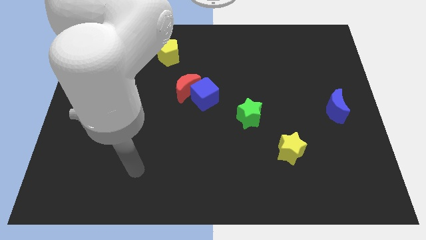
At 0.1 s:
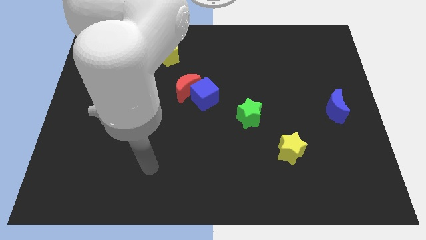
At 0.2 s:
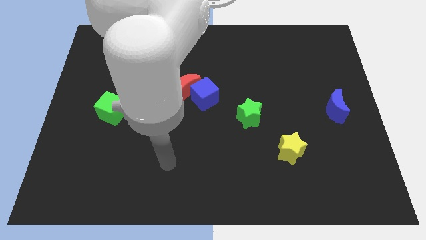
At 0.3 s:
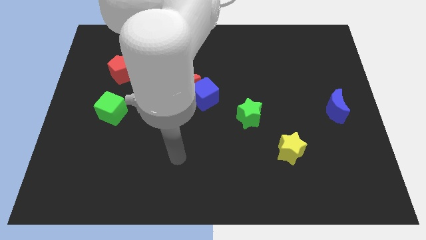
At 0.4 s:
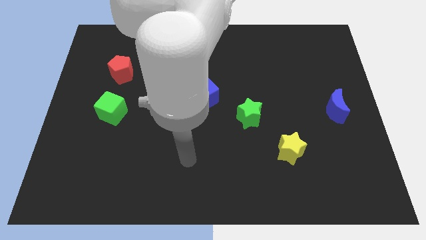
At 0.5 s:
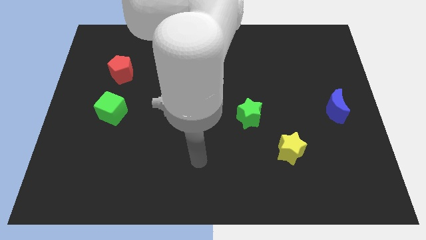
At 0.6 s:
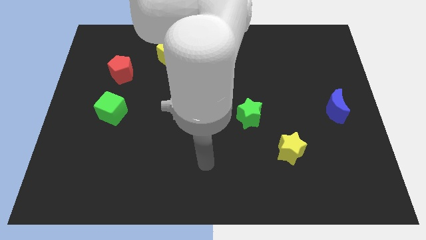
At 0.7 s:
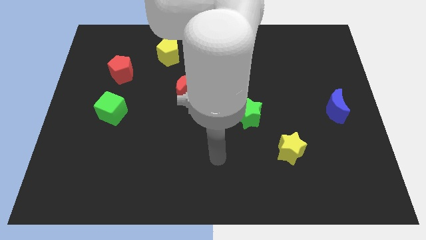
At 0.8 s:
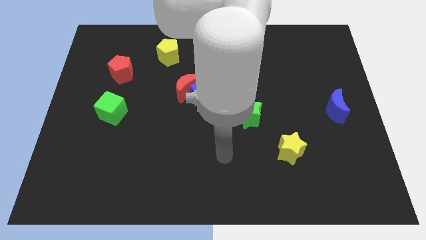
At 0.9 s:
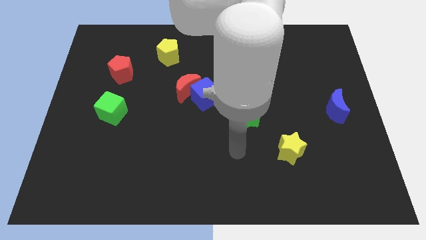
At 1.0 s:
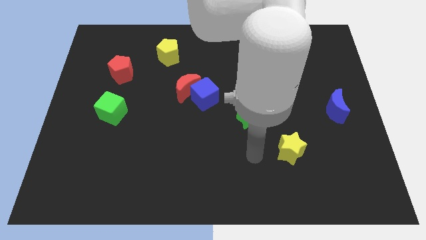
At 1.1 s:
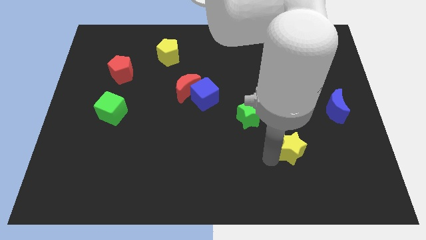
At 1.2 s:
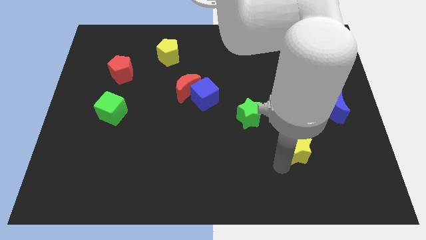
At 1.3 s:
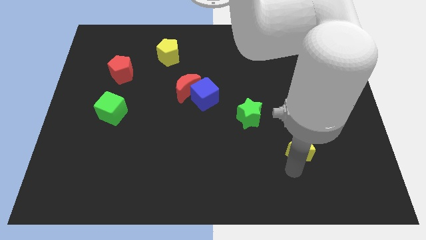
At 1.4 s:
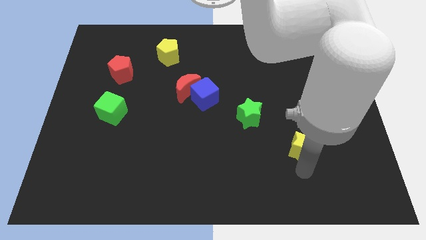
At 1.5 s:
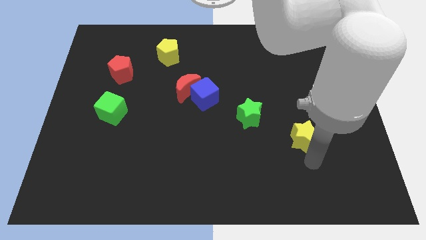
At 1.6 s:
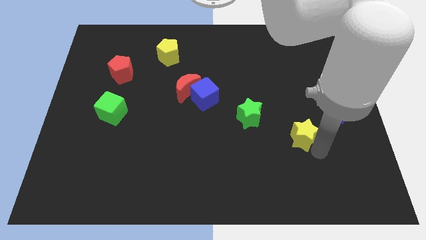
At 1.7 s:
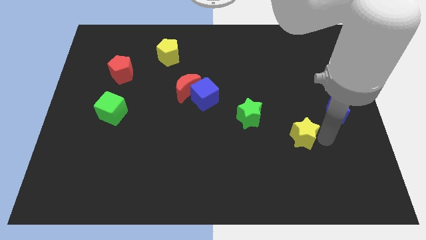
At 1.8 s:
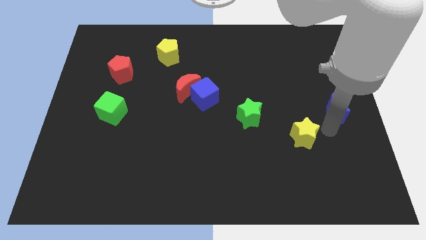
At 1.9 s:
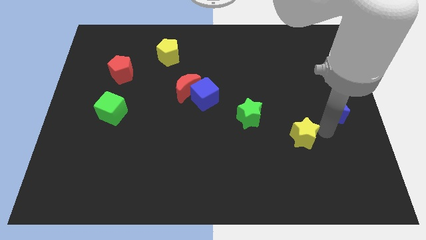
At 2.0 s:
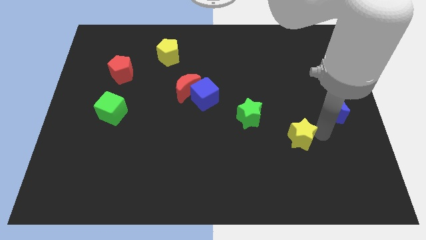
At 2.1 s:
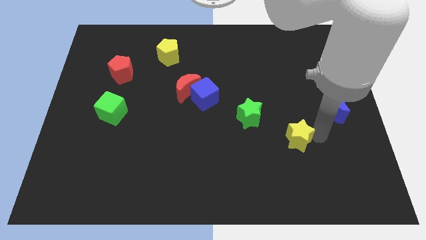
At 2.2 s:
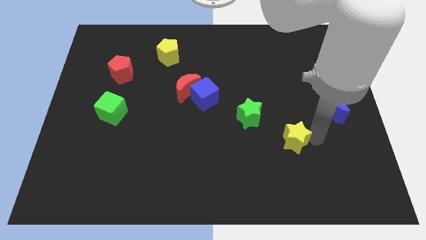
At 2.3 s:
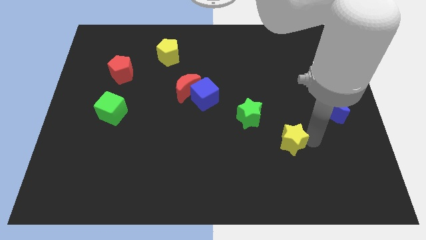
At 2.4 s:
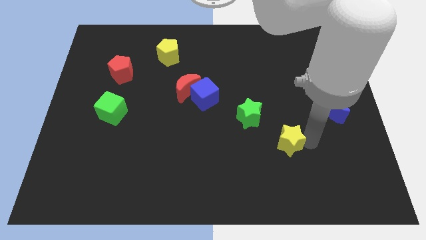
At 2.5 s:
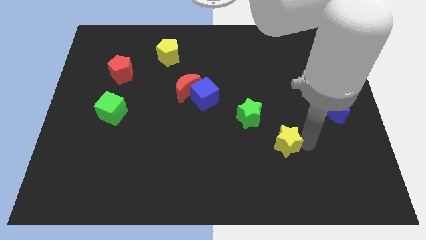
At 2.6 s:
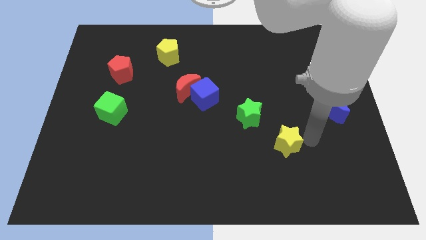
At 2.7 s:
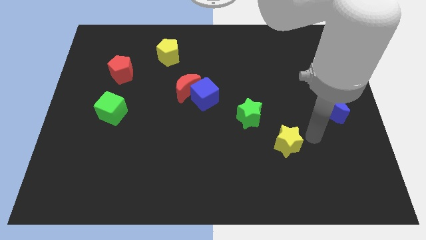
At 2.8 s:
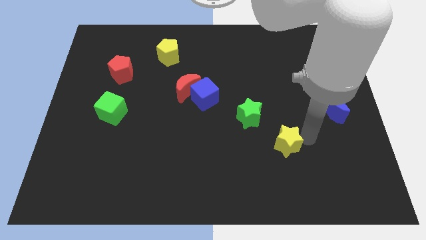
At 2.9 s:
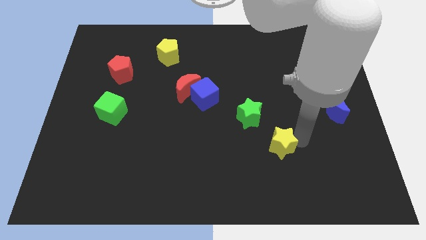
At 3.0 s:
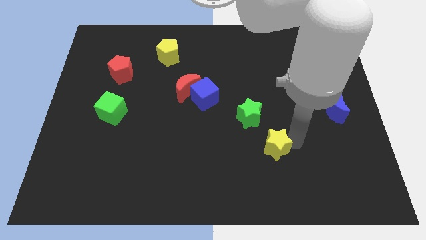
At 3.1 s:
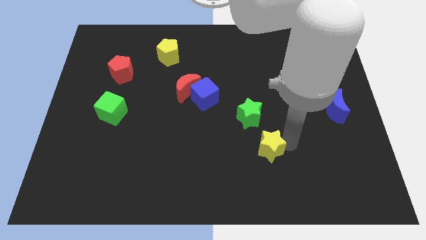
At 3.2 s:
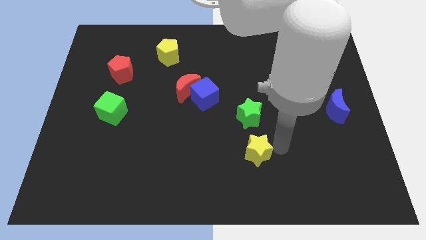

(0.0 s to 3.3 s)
push the yellow star left slightly

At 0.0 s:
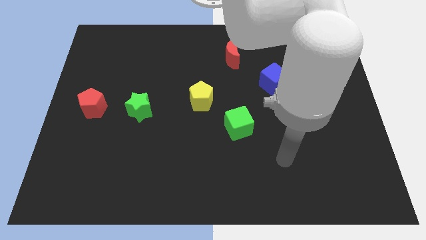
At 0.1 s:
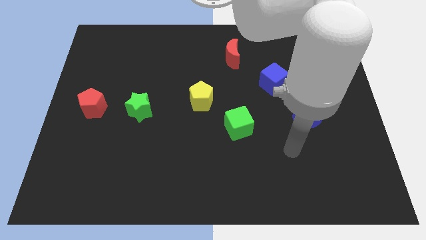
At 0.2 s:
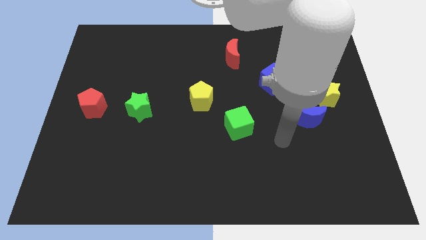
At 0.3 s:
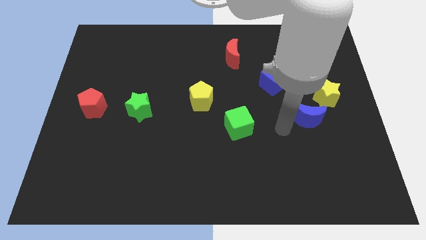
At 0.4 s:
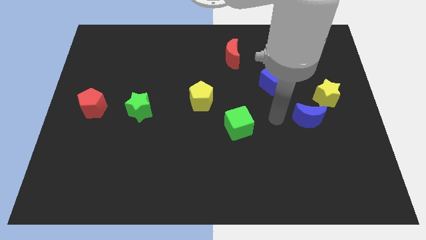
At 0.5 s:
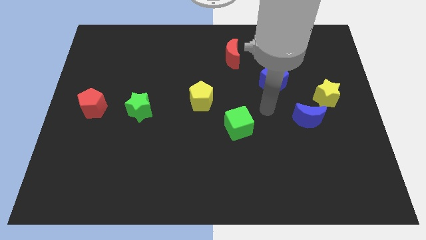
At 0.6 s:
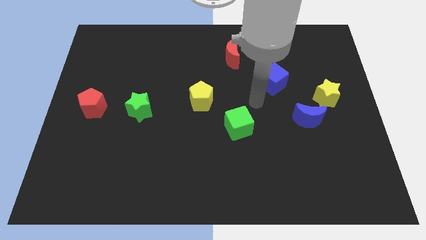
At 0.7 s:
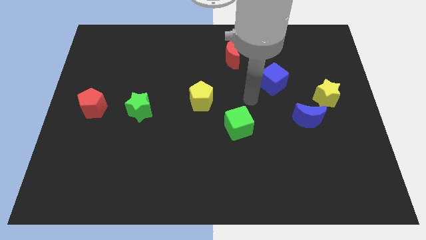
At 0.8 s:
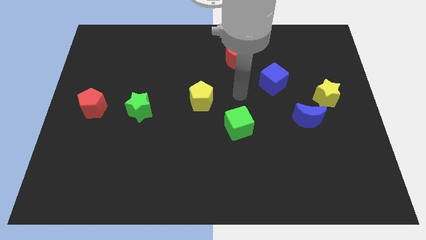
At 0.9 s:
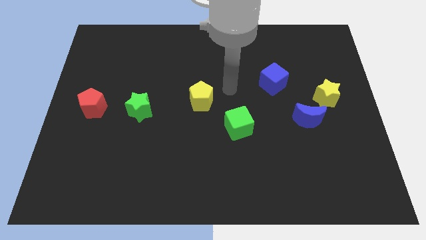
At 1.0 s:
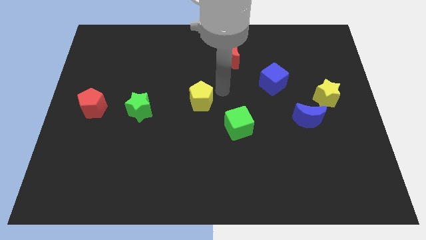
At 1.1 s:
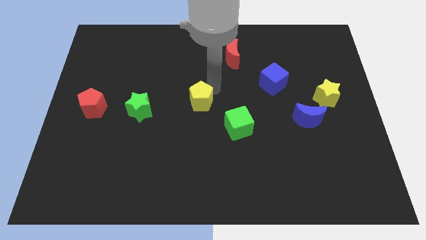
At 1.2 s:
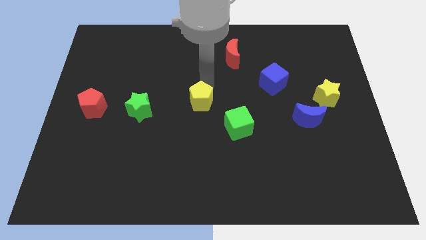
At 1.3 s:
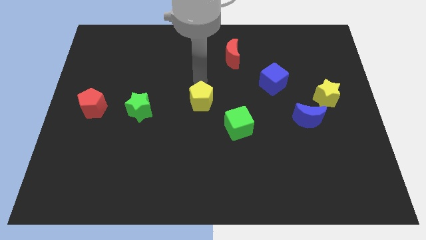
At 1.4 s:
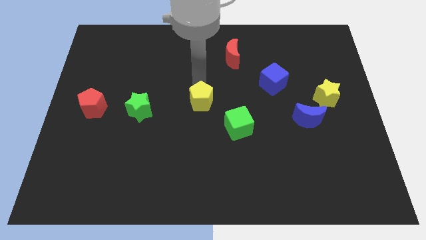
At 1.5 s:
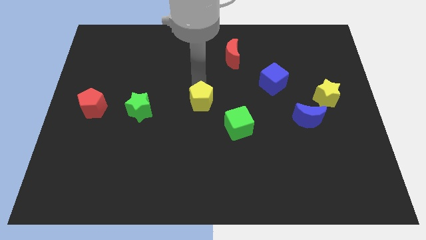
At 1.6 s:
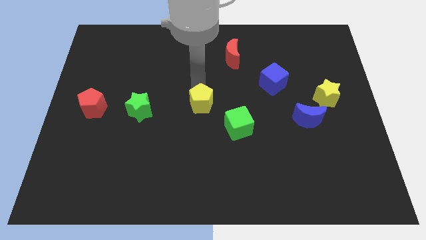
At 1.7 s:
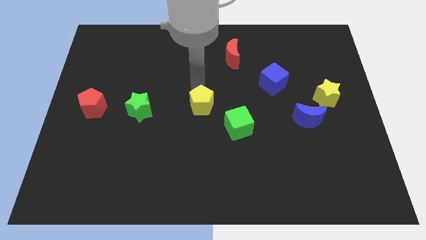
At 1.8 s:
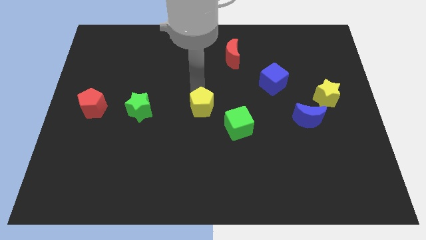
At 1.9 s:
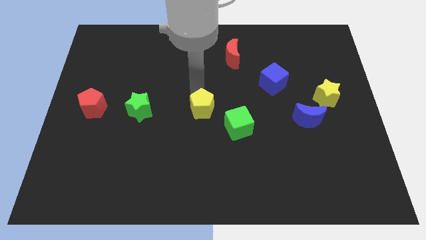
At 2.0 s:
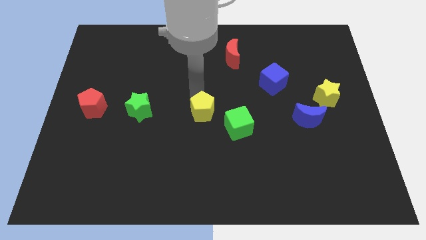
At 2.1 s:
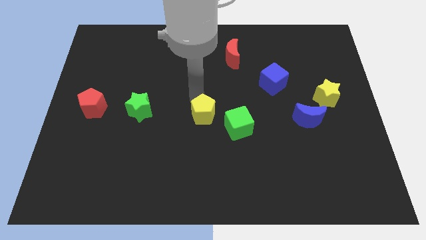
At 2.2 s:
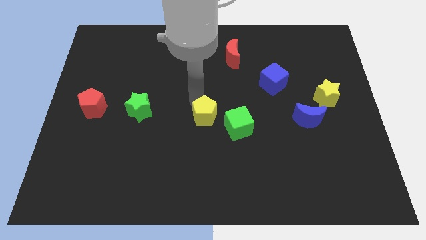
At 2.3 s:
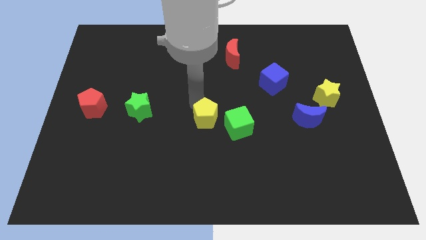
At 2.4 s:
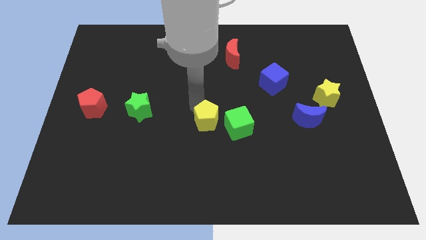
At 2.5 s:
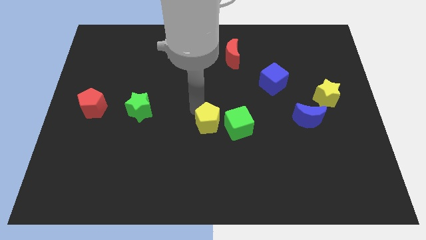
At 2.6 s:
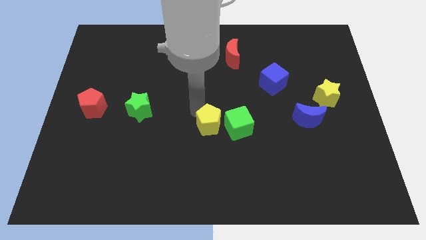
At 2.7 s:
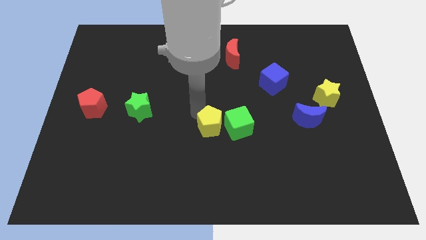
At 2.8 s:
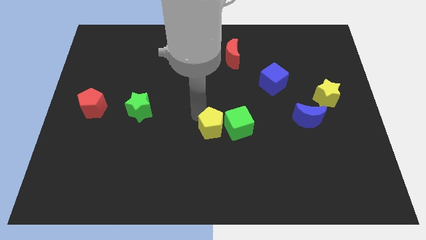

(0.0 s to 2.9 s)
slightly slide the yellow pentagon down and right diagonally

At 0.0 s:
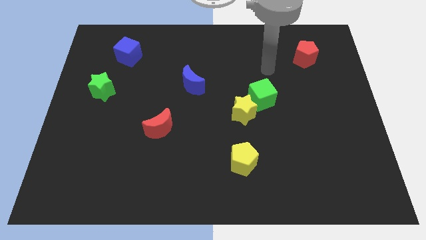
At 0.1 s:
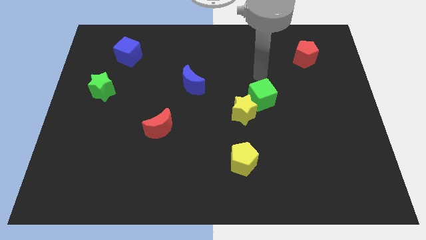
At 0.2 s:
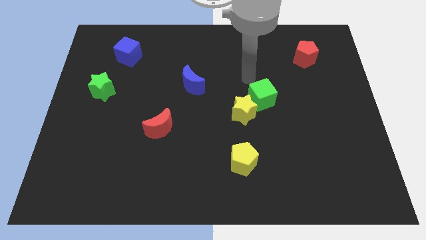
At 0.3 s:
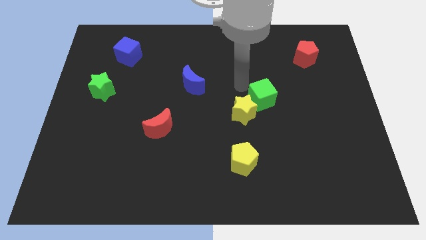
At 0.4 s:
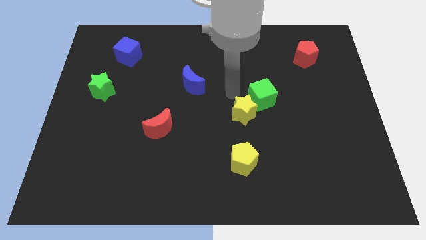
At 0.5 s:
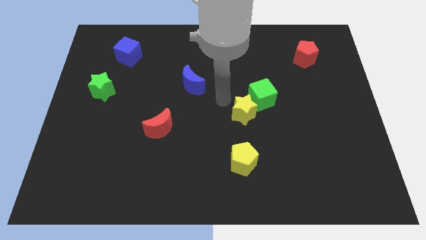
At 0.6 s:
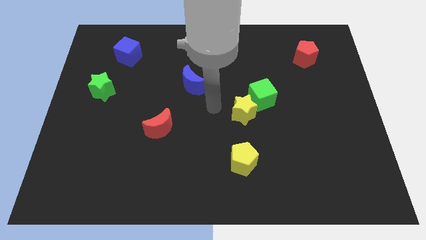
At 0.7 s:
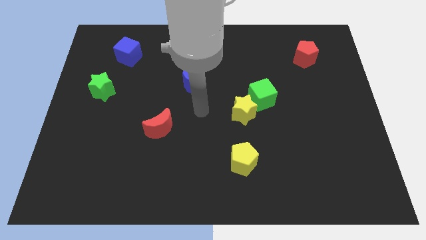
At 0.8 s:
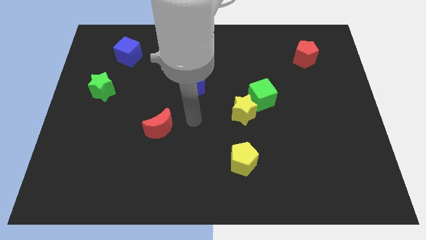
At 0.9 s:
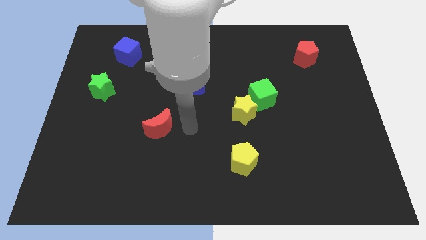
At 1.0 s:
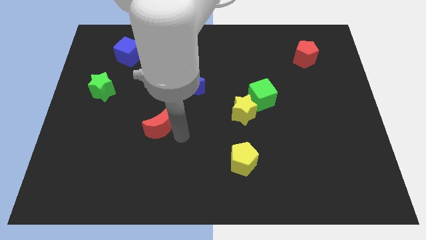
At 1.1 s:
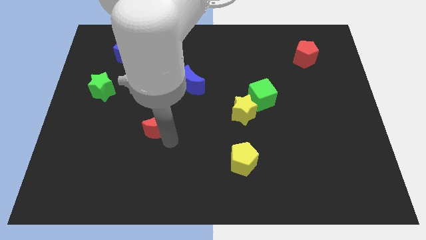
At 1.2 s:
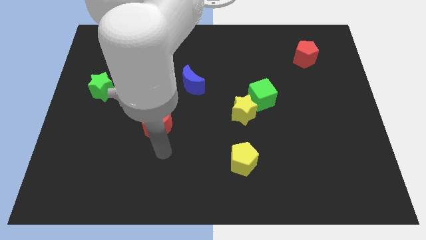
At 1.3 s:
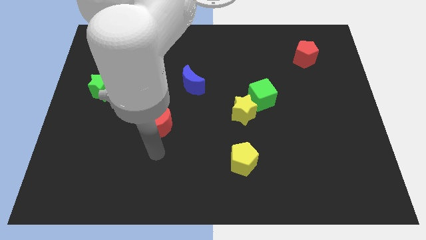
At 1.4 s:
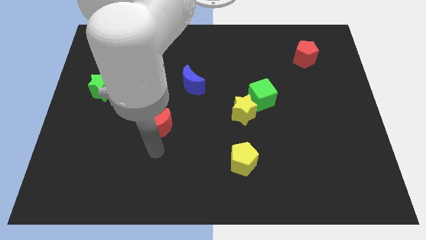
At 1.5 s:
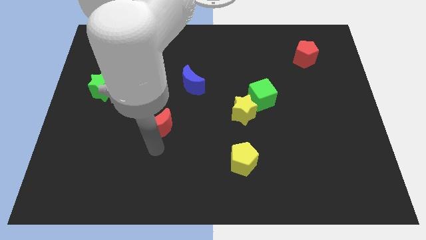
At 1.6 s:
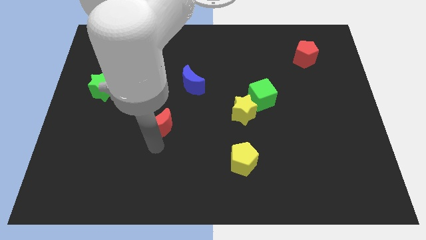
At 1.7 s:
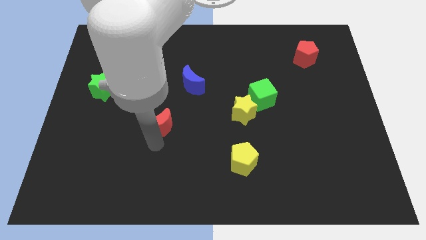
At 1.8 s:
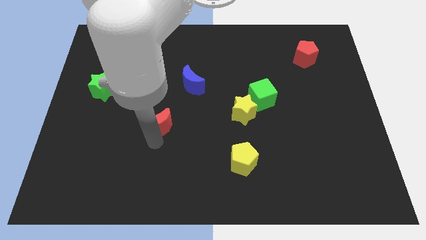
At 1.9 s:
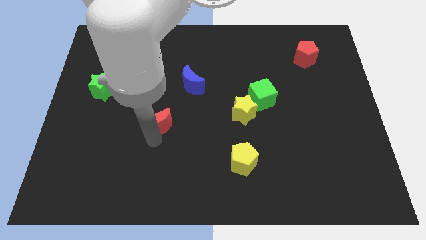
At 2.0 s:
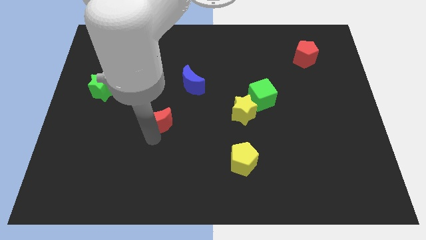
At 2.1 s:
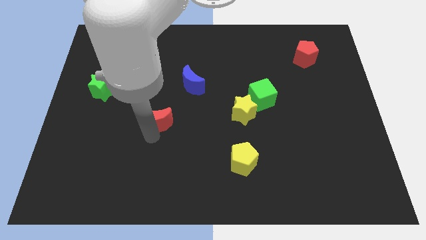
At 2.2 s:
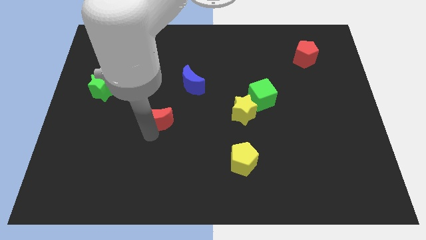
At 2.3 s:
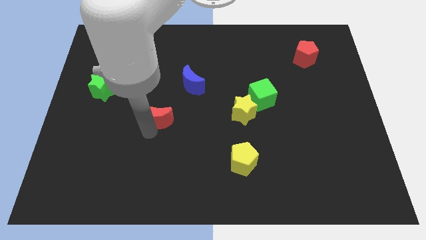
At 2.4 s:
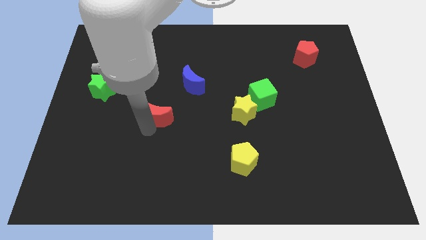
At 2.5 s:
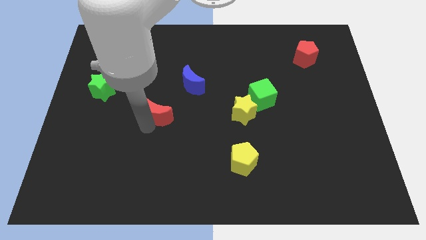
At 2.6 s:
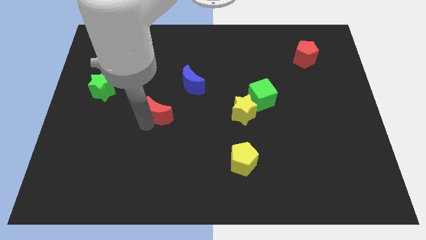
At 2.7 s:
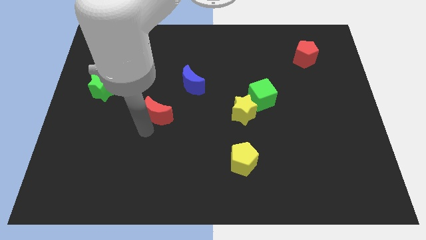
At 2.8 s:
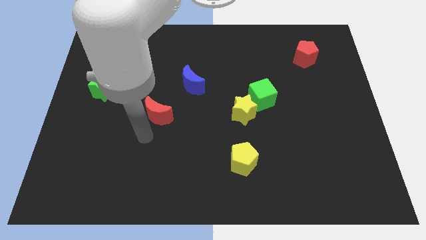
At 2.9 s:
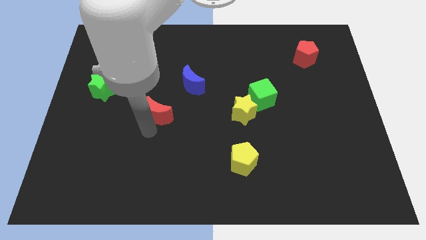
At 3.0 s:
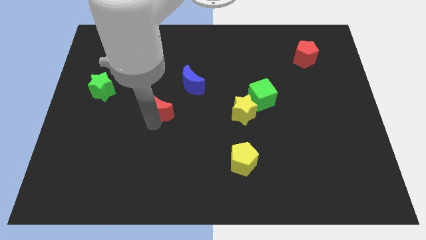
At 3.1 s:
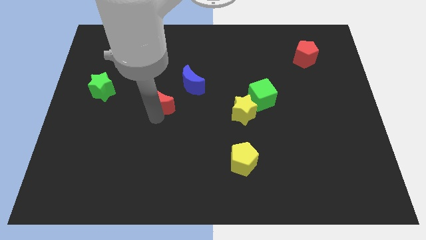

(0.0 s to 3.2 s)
slightly push the red moon up
